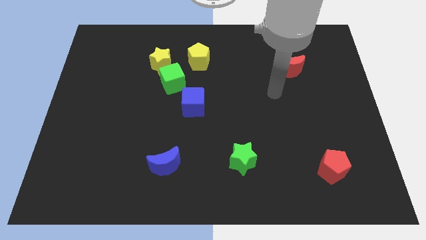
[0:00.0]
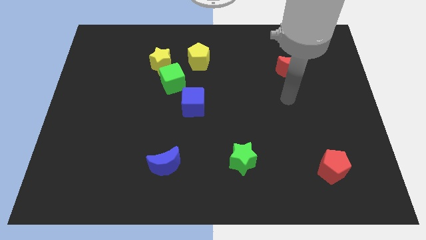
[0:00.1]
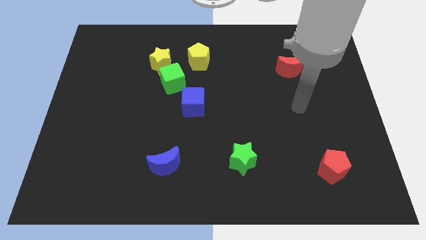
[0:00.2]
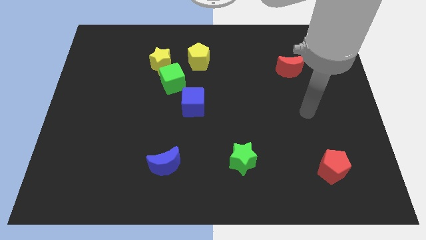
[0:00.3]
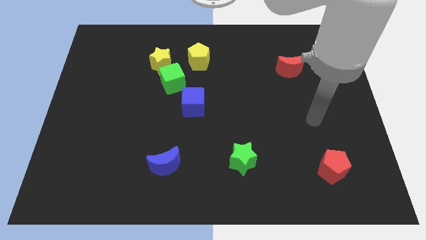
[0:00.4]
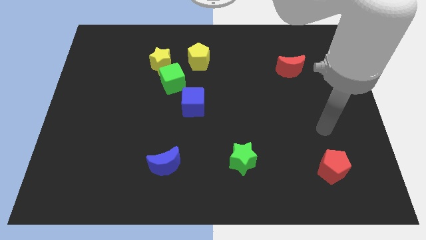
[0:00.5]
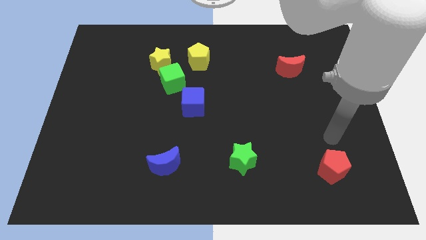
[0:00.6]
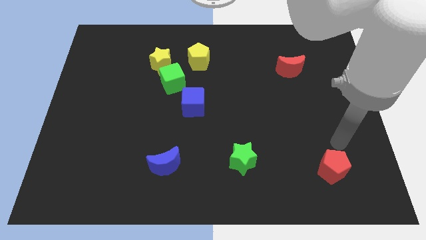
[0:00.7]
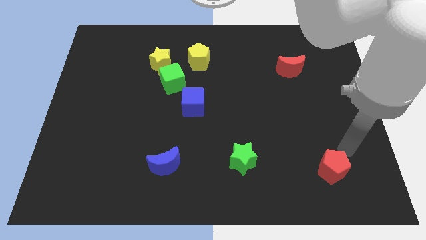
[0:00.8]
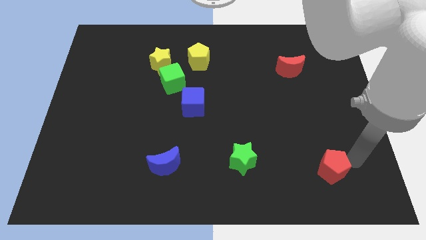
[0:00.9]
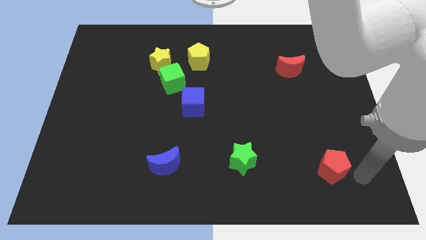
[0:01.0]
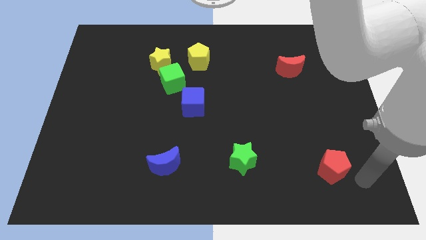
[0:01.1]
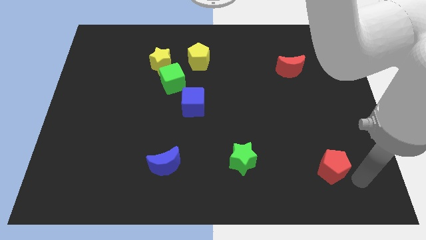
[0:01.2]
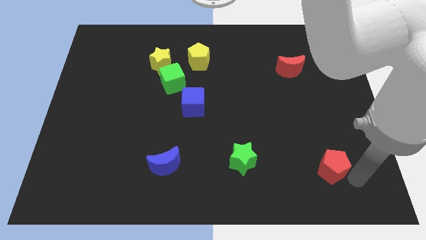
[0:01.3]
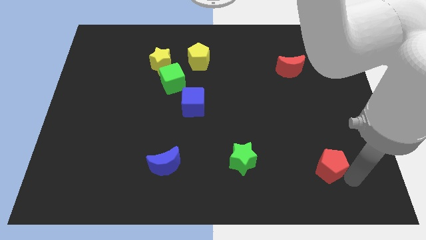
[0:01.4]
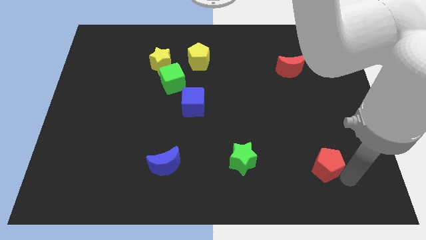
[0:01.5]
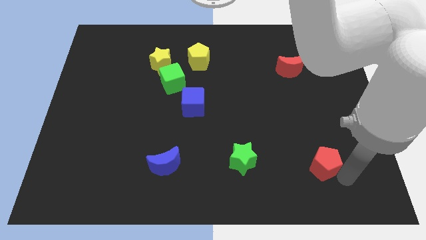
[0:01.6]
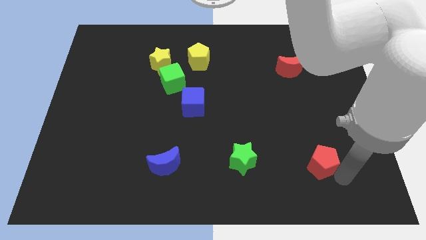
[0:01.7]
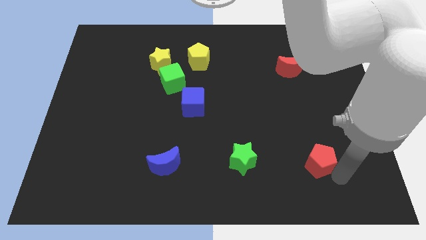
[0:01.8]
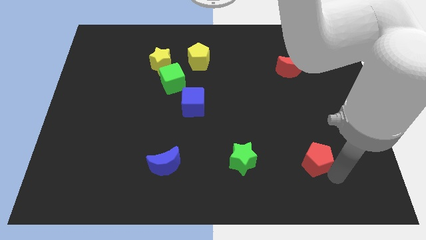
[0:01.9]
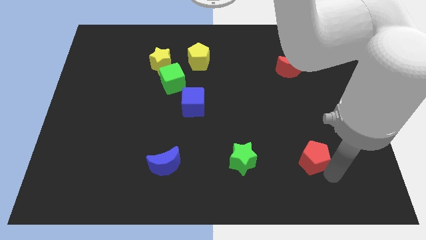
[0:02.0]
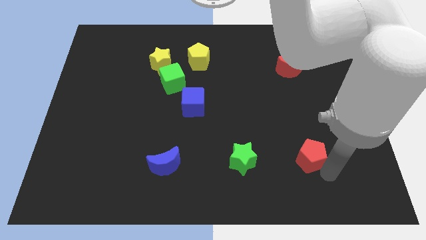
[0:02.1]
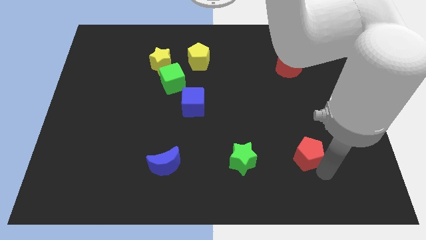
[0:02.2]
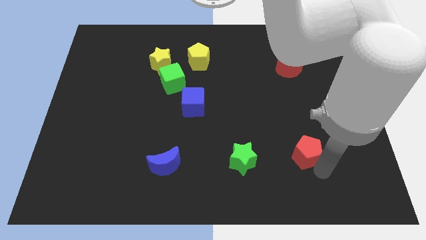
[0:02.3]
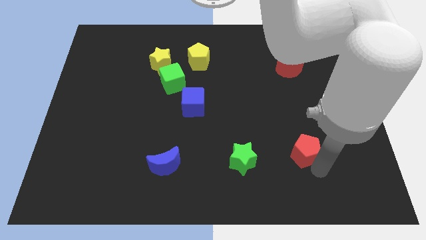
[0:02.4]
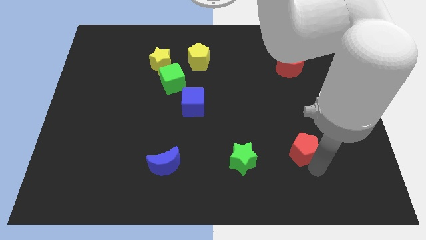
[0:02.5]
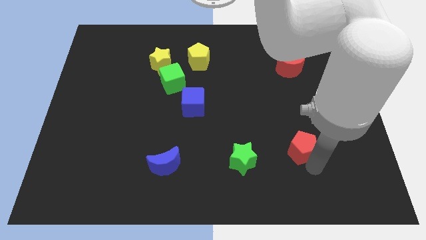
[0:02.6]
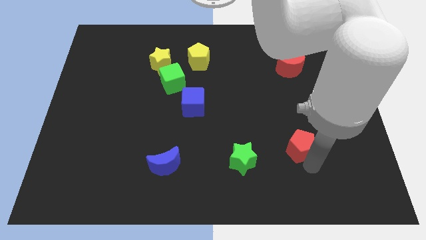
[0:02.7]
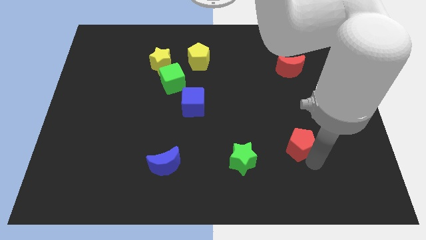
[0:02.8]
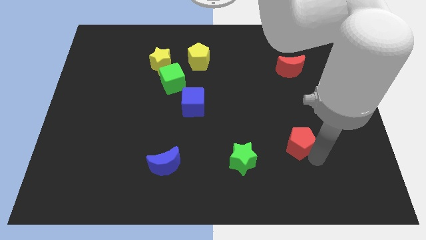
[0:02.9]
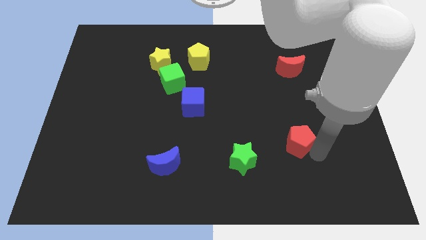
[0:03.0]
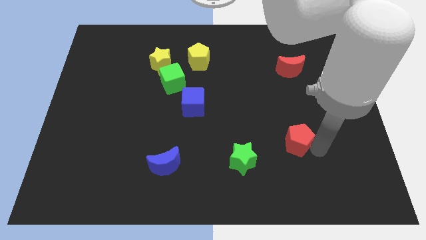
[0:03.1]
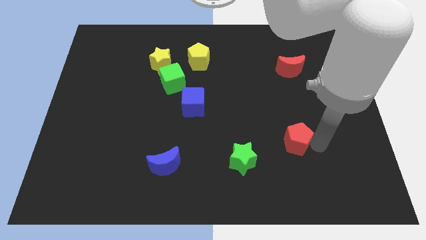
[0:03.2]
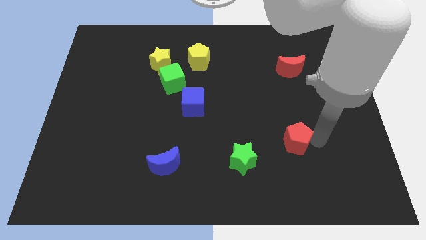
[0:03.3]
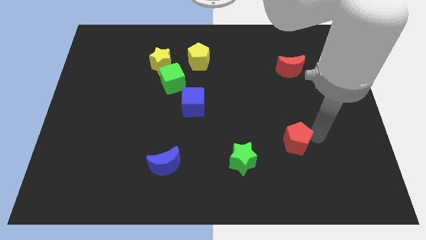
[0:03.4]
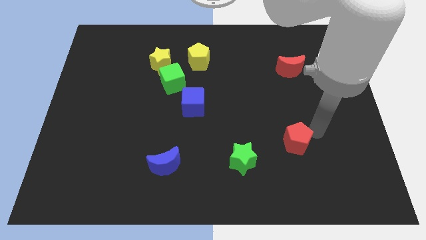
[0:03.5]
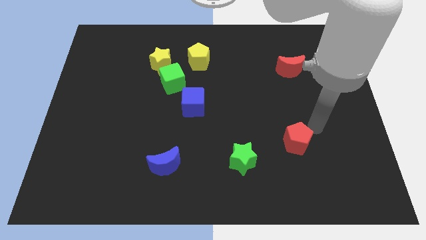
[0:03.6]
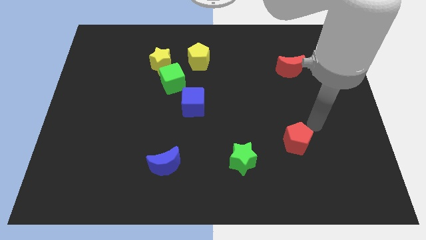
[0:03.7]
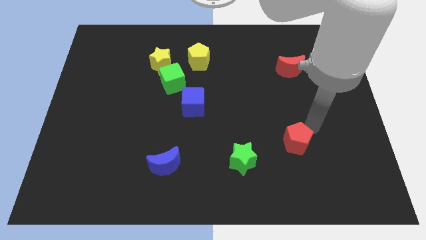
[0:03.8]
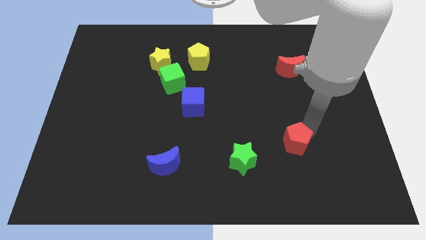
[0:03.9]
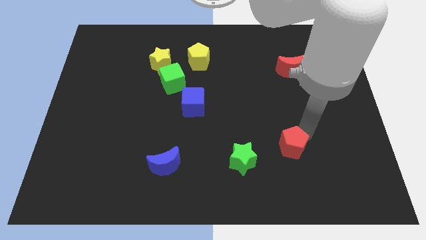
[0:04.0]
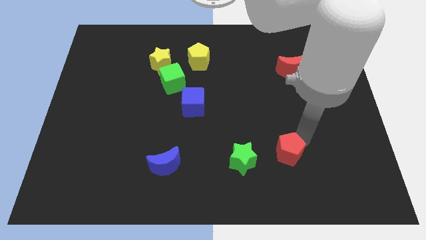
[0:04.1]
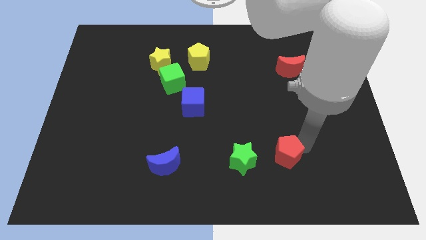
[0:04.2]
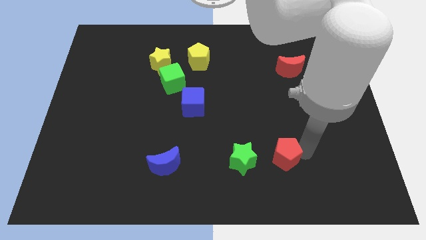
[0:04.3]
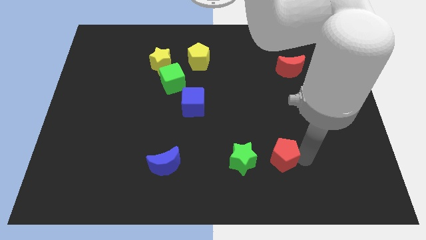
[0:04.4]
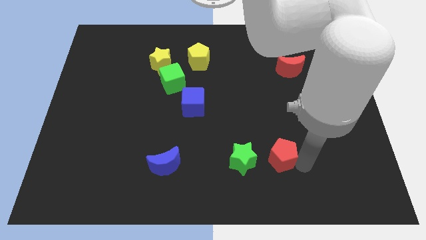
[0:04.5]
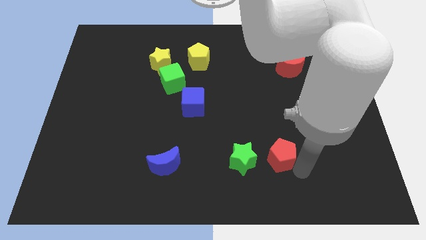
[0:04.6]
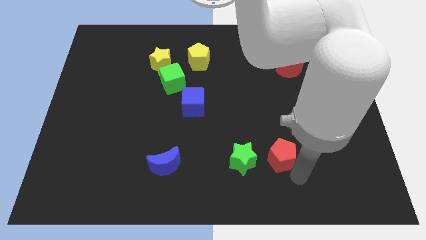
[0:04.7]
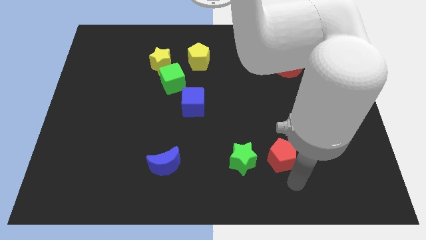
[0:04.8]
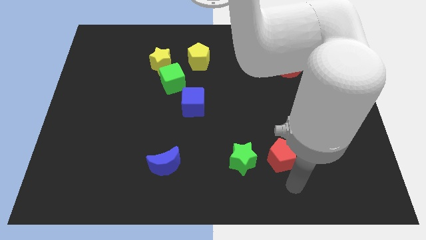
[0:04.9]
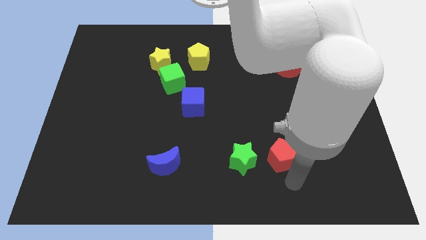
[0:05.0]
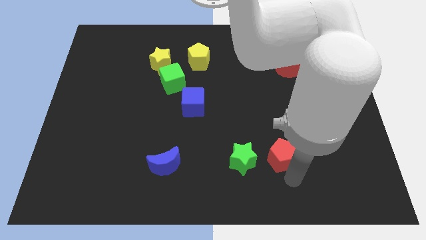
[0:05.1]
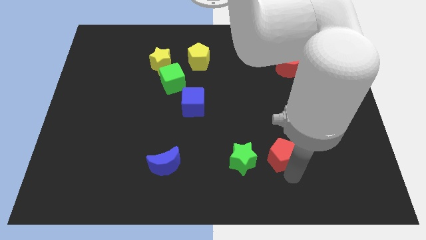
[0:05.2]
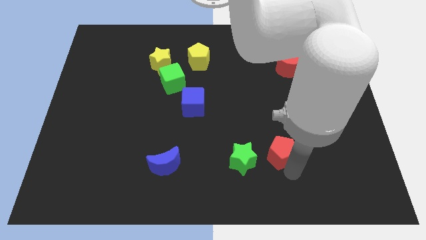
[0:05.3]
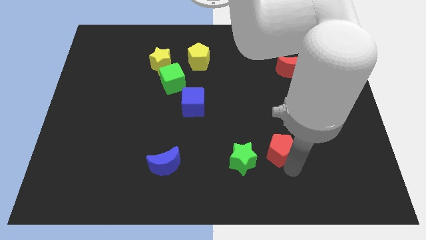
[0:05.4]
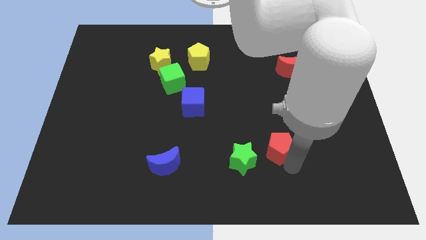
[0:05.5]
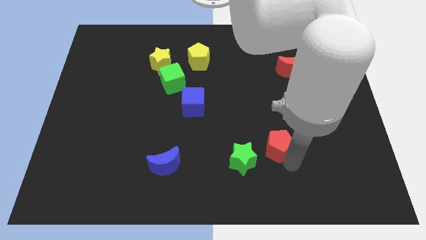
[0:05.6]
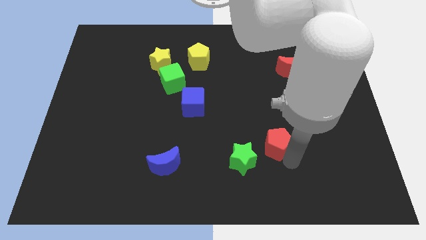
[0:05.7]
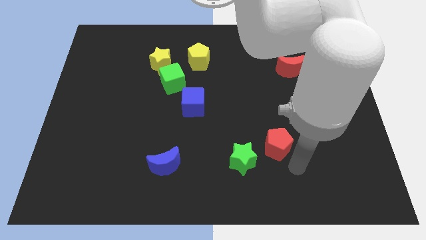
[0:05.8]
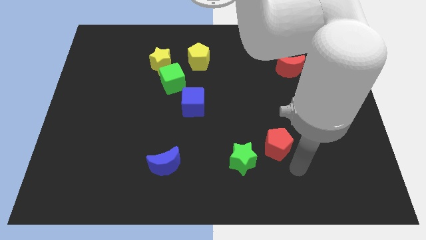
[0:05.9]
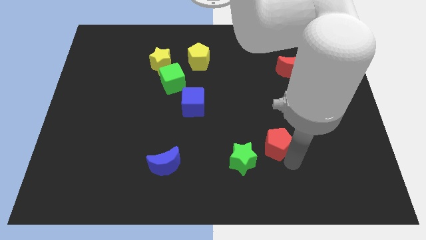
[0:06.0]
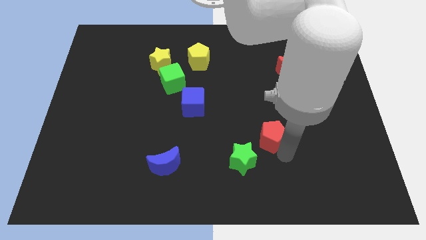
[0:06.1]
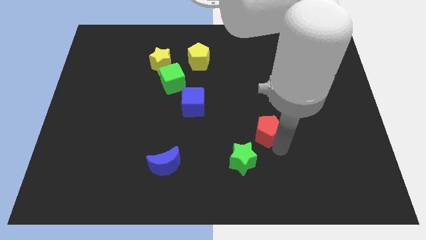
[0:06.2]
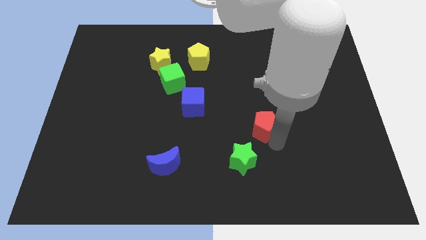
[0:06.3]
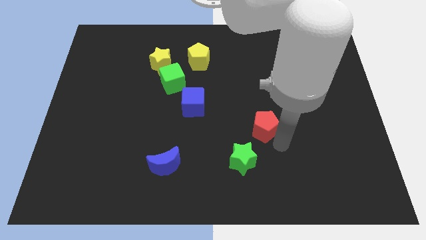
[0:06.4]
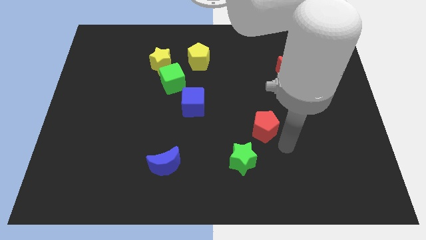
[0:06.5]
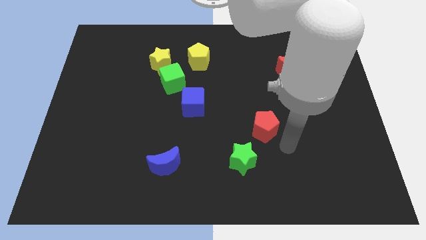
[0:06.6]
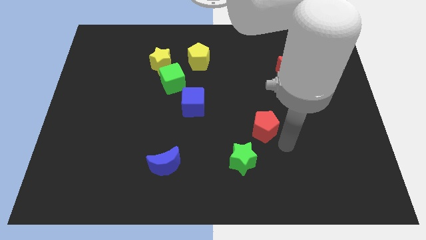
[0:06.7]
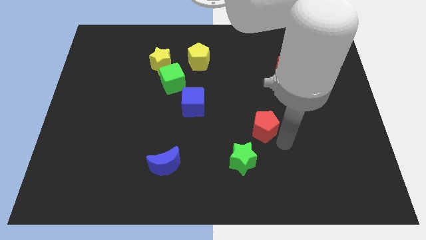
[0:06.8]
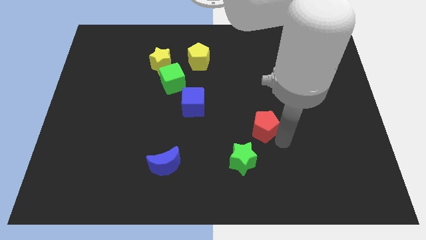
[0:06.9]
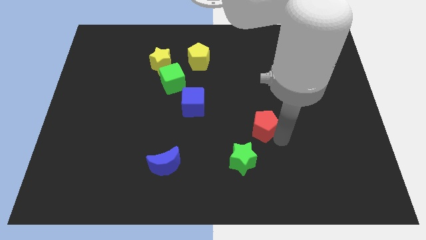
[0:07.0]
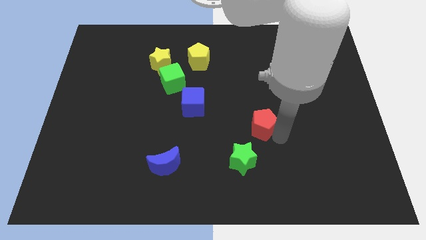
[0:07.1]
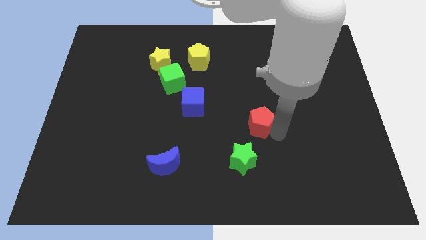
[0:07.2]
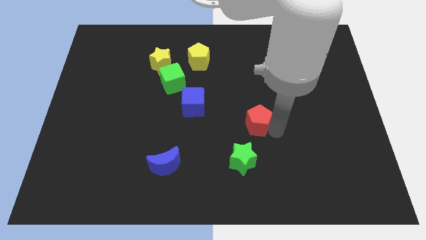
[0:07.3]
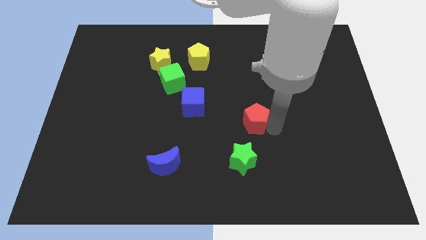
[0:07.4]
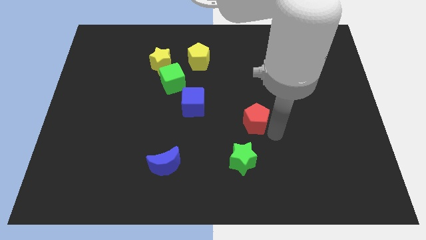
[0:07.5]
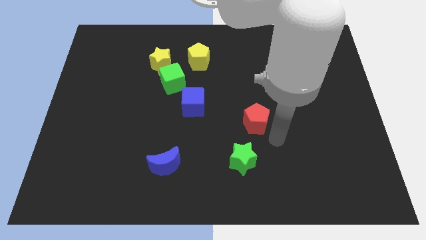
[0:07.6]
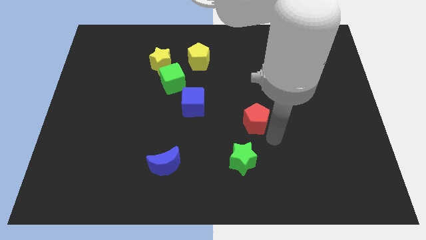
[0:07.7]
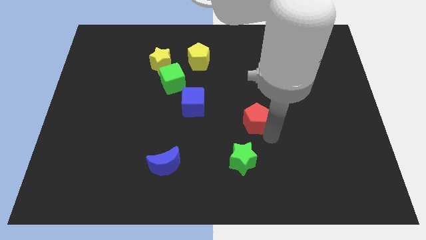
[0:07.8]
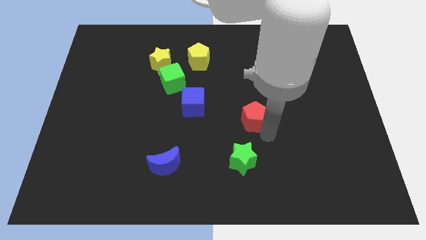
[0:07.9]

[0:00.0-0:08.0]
move the red pentagon just right of the blue cube
